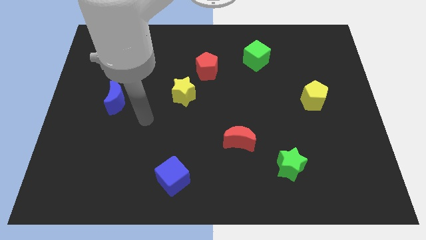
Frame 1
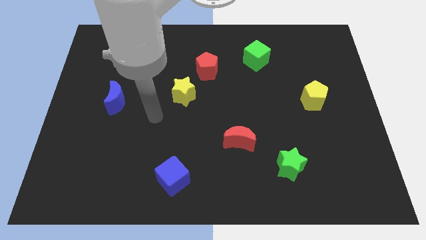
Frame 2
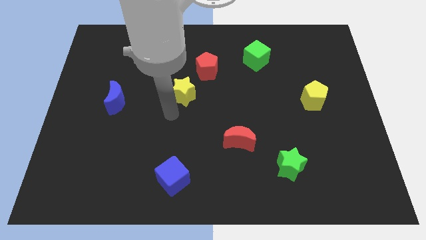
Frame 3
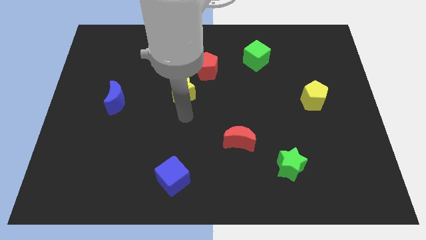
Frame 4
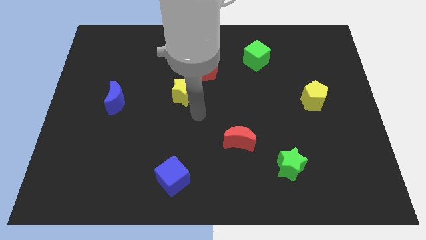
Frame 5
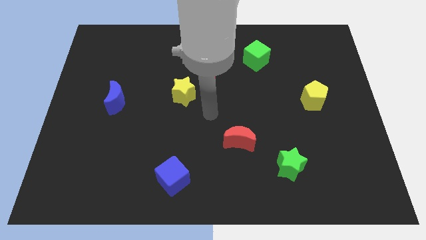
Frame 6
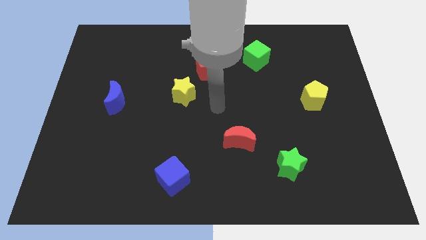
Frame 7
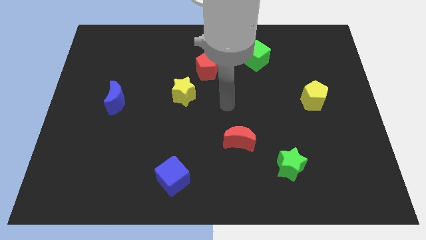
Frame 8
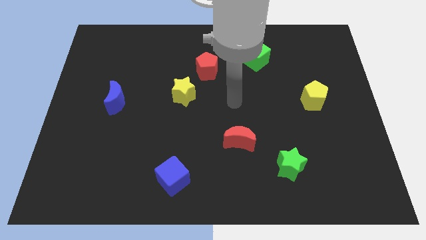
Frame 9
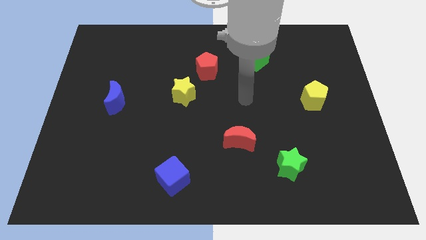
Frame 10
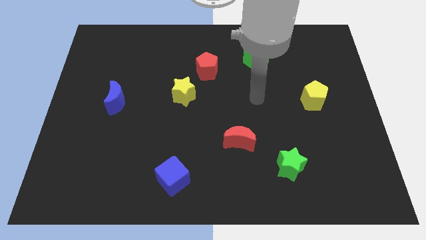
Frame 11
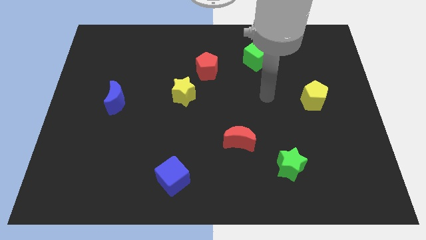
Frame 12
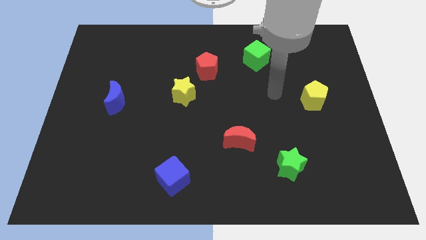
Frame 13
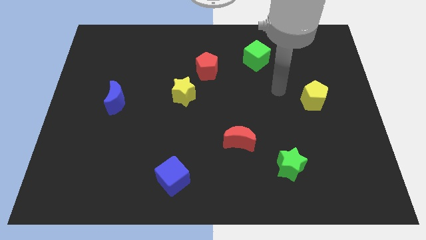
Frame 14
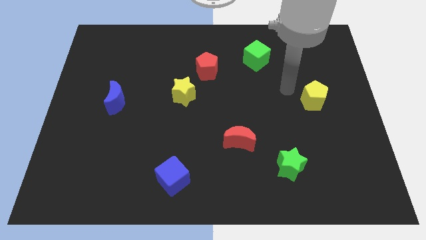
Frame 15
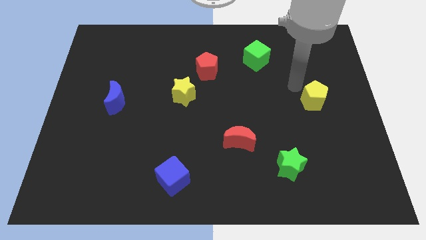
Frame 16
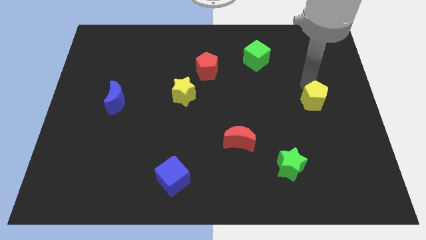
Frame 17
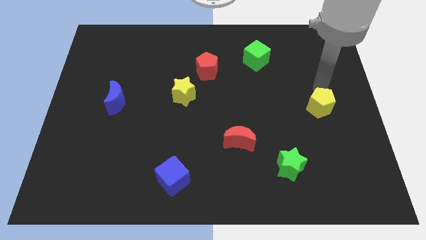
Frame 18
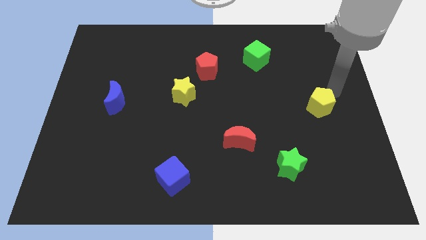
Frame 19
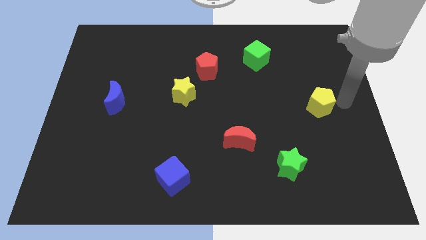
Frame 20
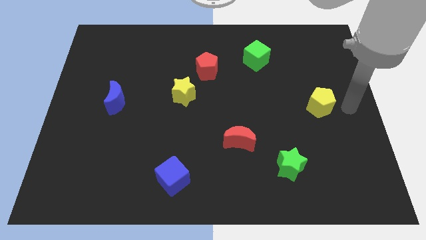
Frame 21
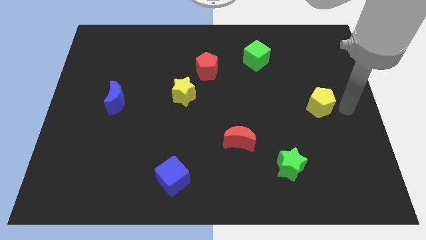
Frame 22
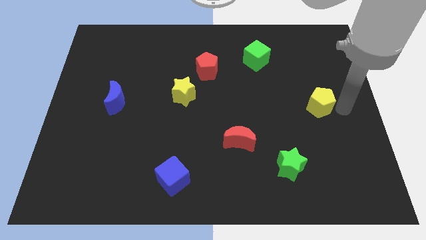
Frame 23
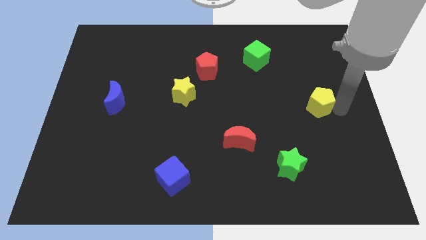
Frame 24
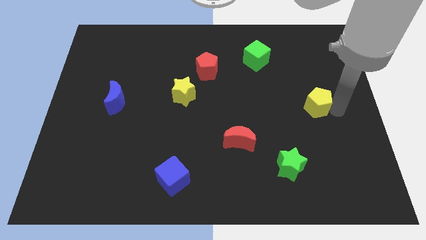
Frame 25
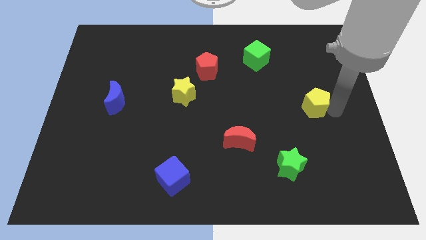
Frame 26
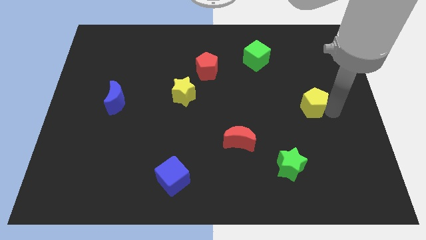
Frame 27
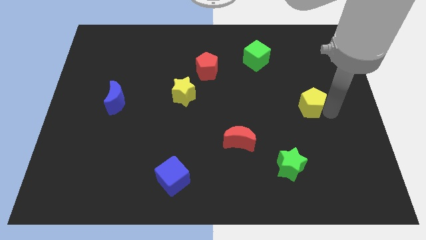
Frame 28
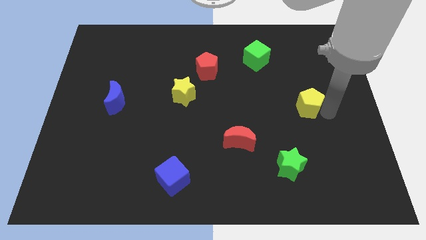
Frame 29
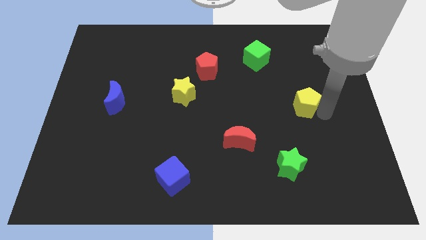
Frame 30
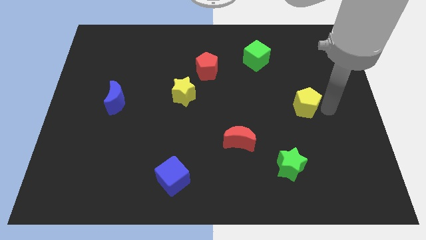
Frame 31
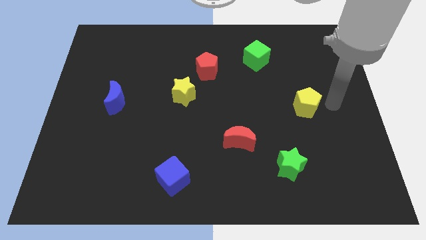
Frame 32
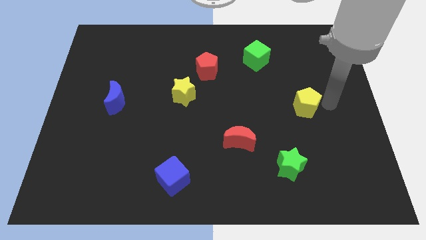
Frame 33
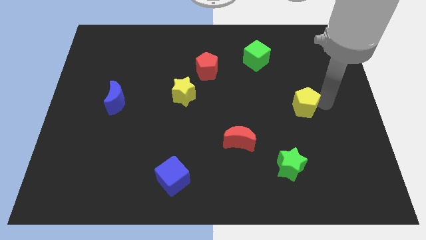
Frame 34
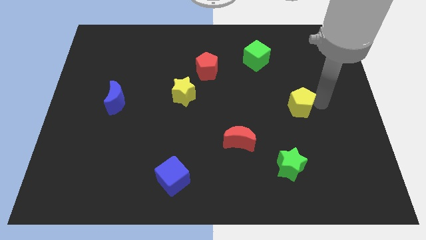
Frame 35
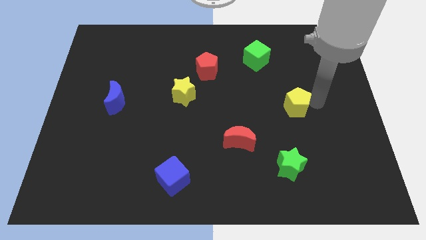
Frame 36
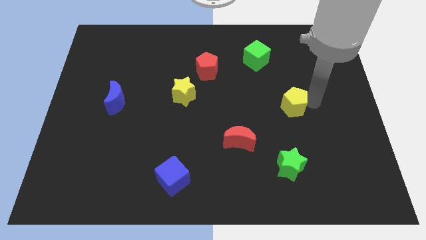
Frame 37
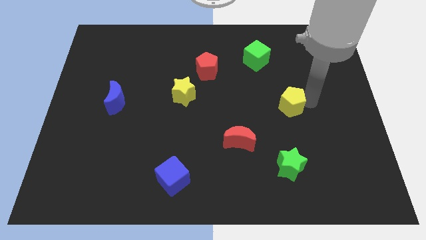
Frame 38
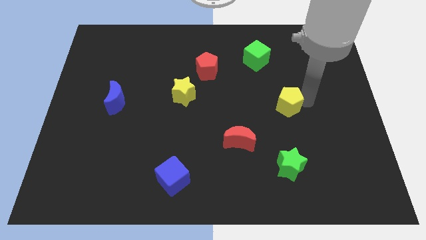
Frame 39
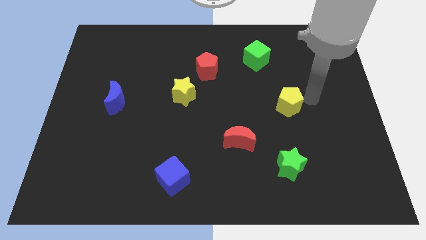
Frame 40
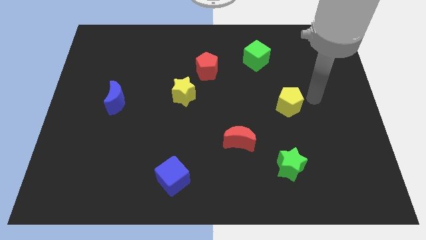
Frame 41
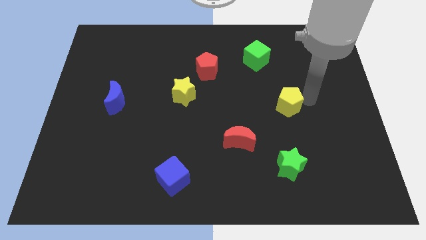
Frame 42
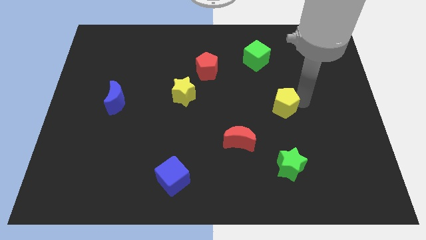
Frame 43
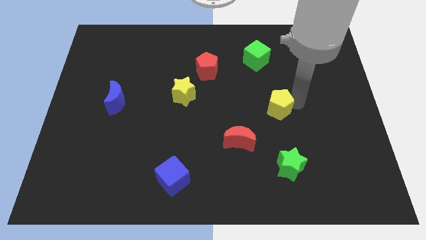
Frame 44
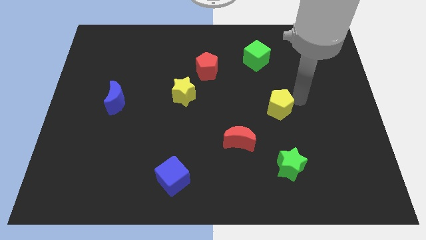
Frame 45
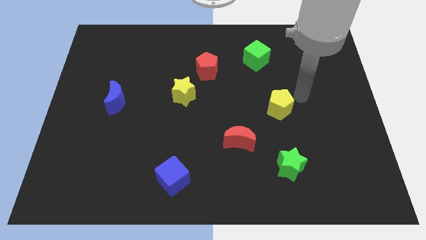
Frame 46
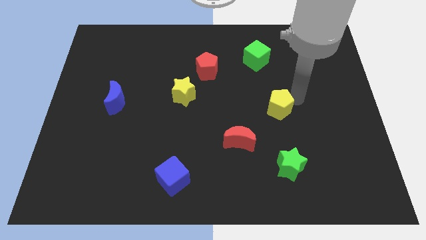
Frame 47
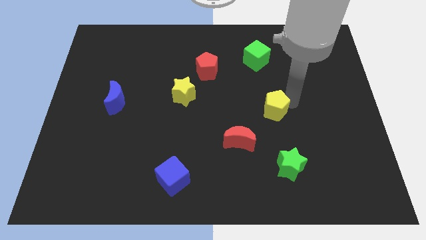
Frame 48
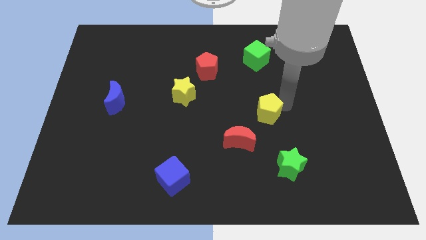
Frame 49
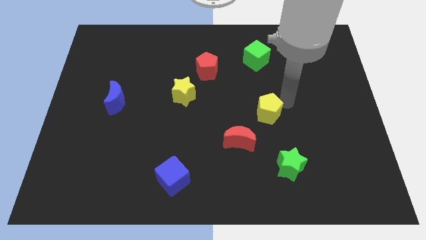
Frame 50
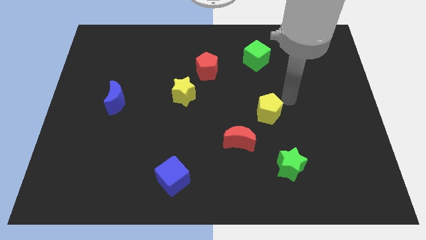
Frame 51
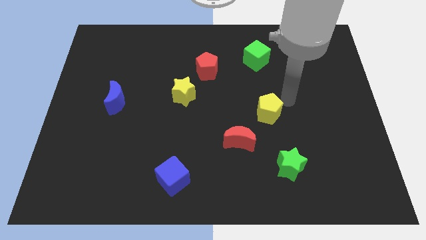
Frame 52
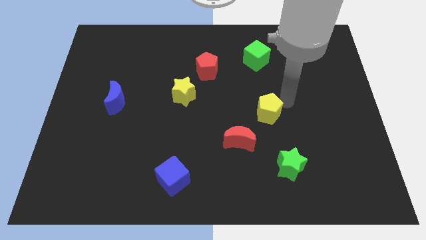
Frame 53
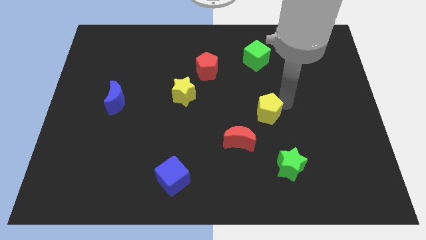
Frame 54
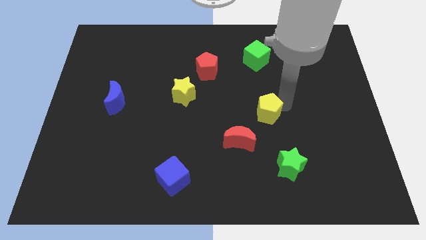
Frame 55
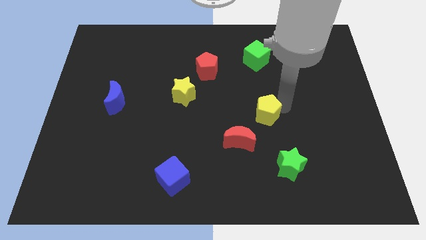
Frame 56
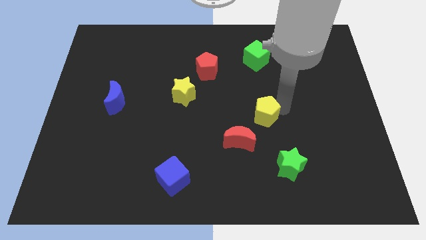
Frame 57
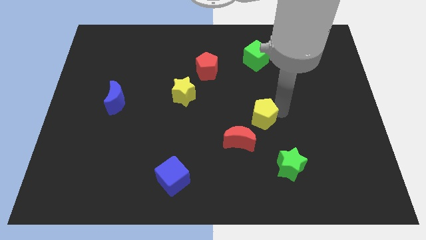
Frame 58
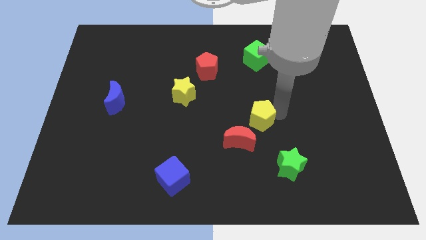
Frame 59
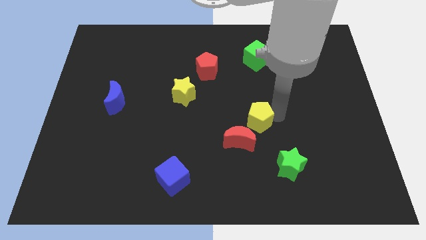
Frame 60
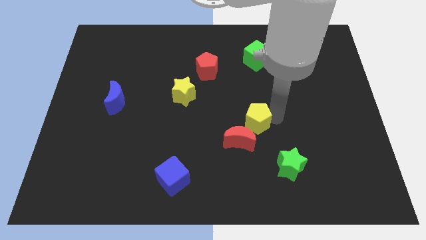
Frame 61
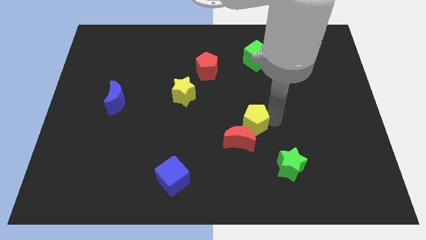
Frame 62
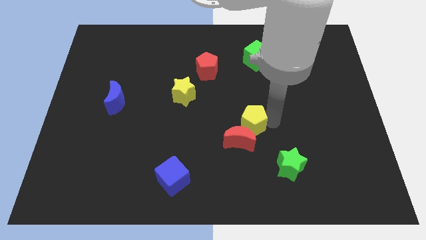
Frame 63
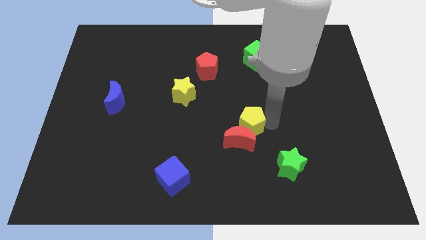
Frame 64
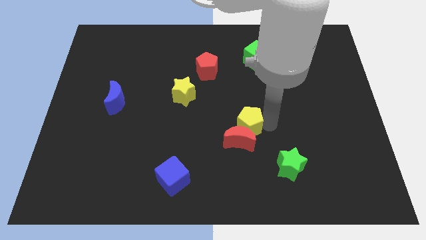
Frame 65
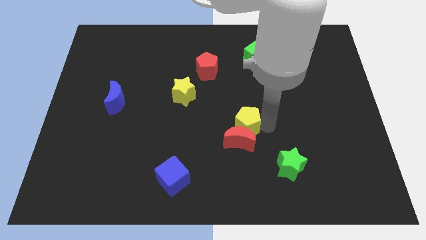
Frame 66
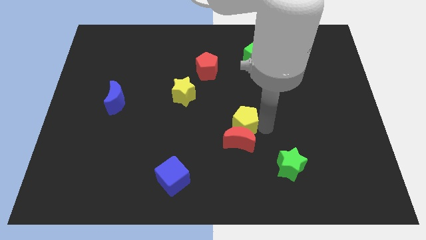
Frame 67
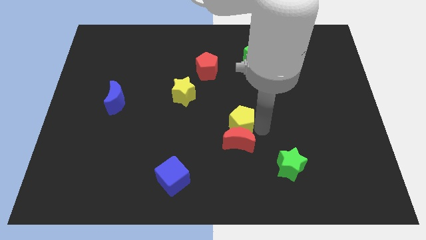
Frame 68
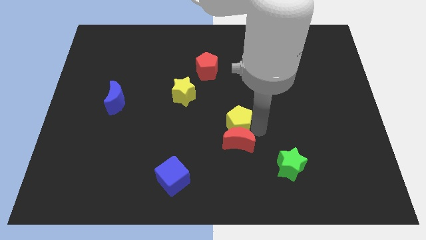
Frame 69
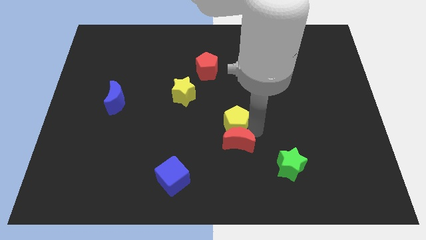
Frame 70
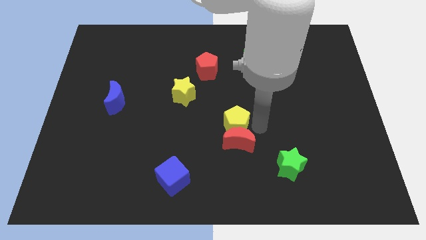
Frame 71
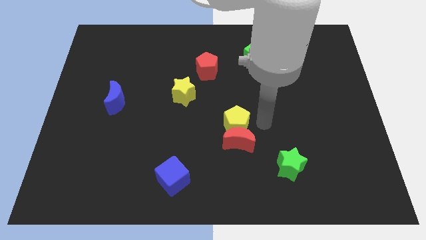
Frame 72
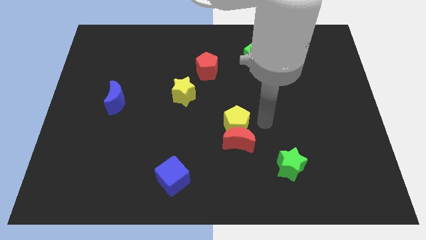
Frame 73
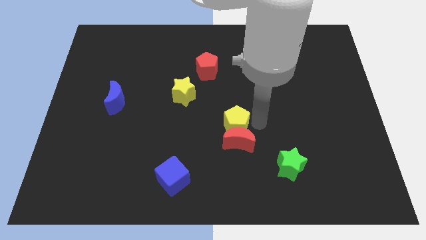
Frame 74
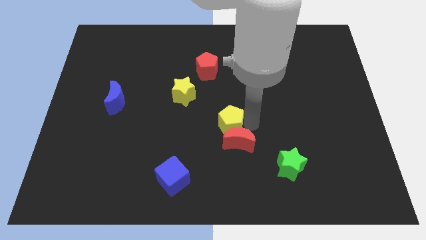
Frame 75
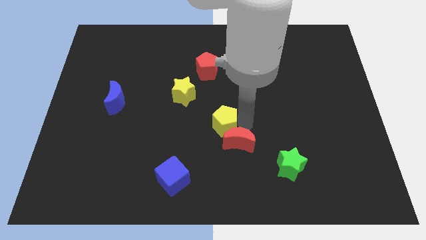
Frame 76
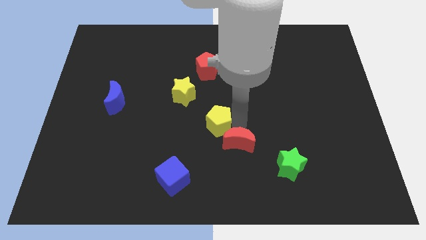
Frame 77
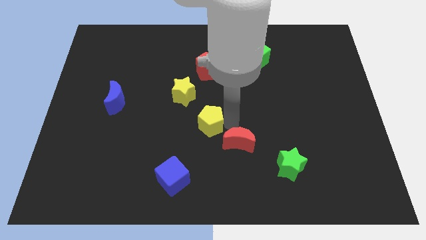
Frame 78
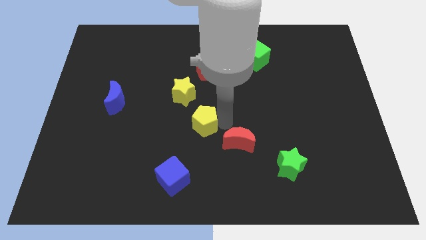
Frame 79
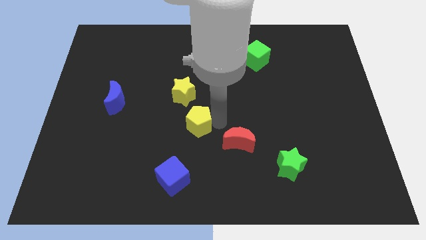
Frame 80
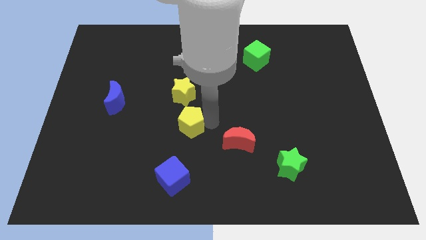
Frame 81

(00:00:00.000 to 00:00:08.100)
put the yellow pentagon above the blue cube
